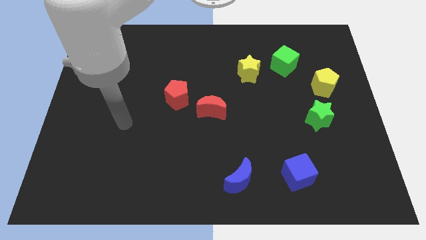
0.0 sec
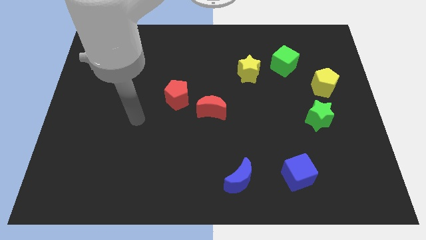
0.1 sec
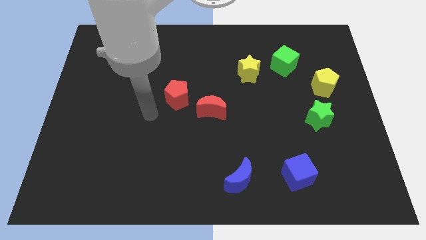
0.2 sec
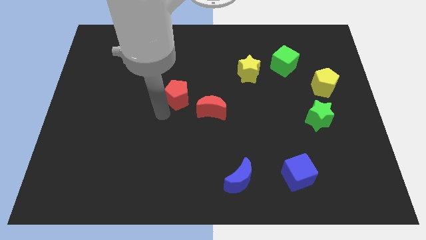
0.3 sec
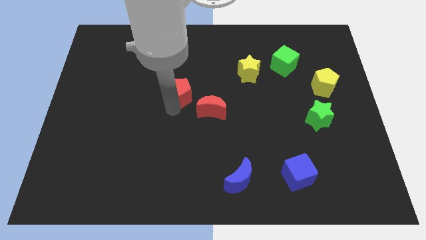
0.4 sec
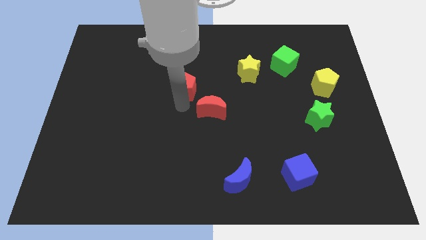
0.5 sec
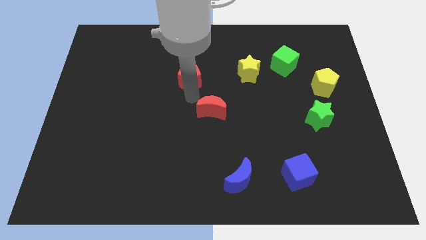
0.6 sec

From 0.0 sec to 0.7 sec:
move the red moon away from the red pentagon

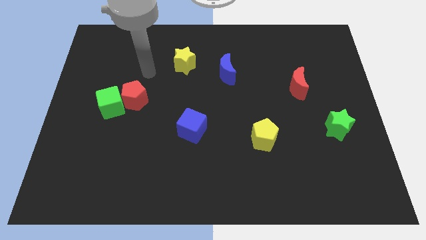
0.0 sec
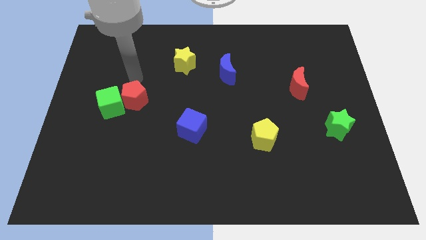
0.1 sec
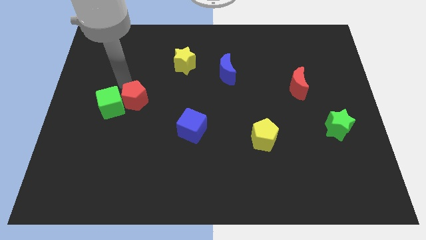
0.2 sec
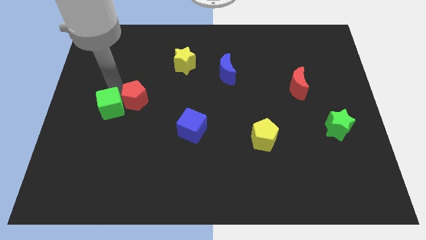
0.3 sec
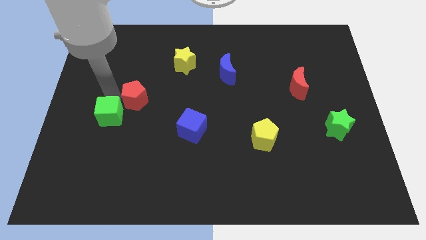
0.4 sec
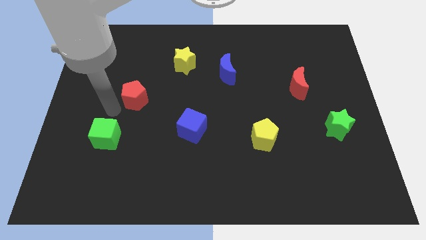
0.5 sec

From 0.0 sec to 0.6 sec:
separate the red pentagon from the green cube

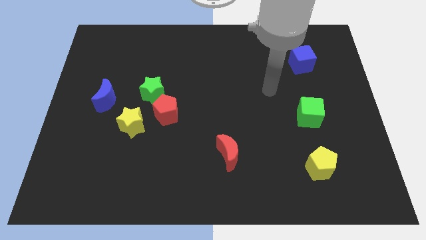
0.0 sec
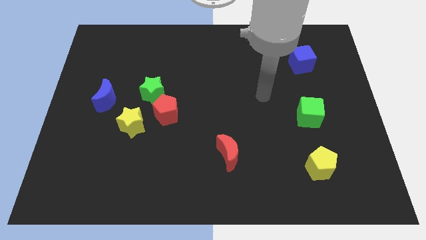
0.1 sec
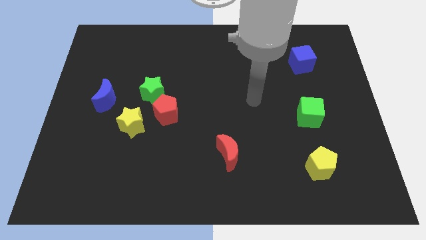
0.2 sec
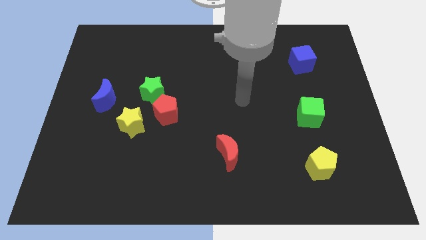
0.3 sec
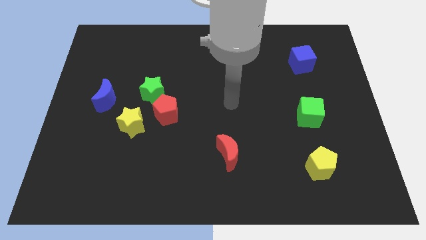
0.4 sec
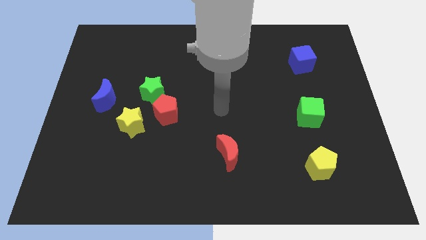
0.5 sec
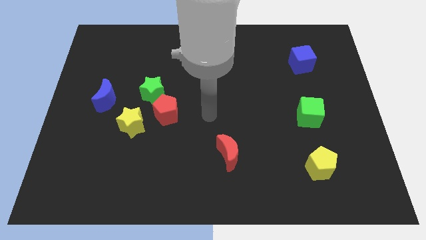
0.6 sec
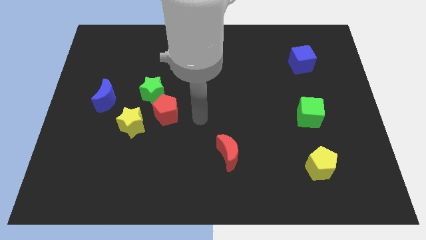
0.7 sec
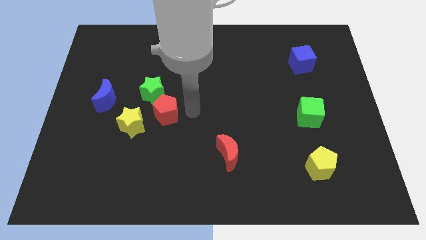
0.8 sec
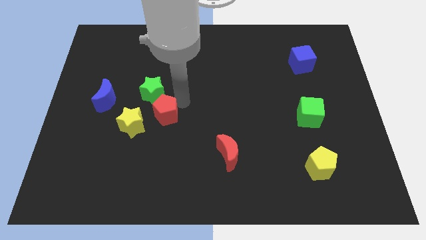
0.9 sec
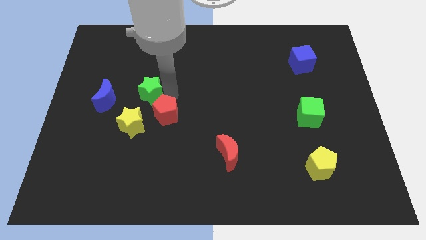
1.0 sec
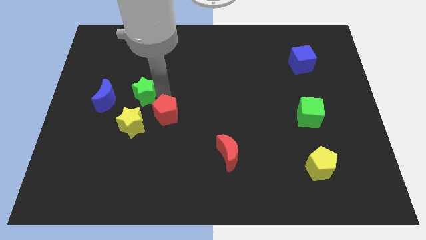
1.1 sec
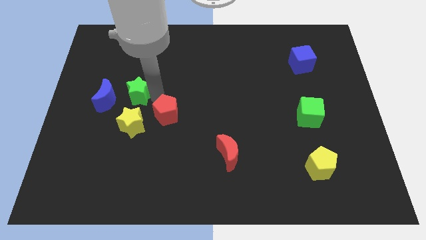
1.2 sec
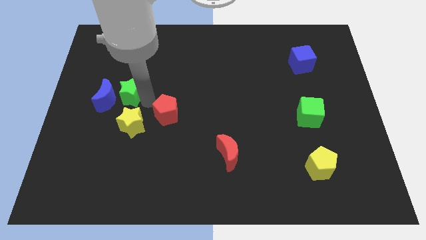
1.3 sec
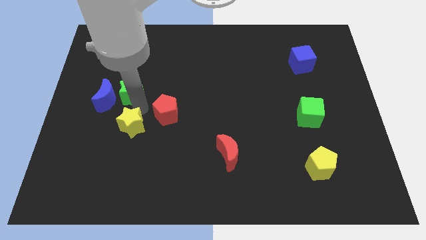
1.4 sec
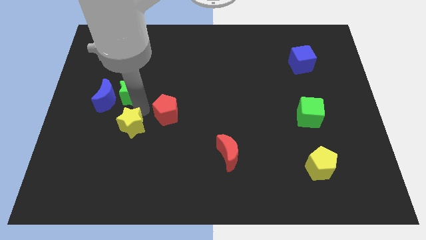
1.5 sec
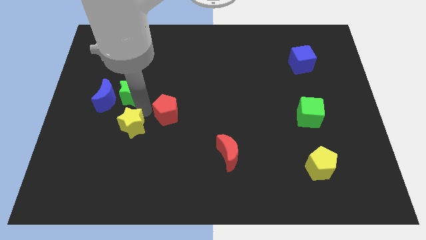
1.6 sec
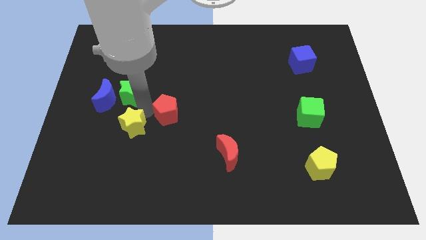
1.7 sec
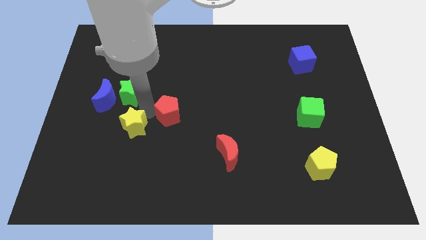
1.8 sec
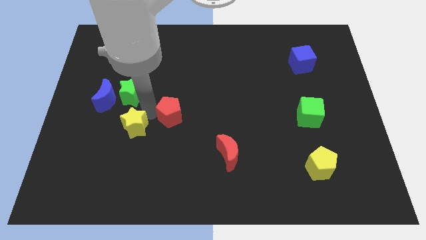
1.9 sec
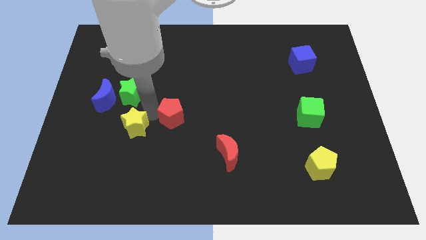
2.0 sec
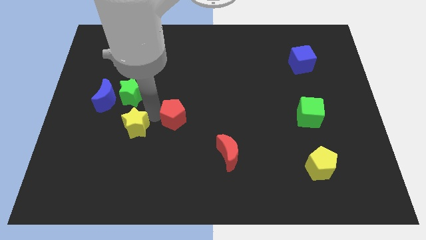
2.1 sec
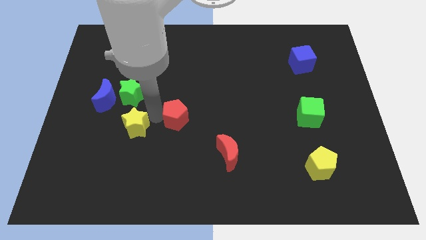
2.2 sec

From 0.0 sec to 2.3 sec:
pull the red pentagon apart from the green star and yellow star

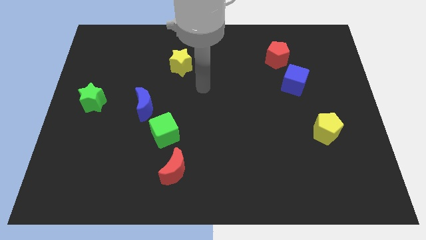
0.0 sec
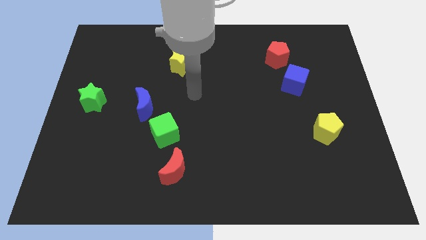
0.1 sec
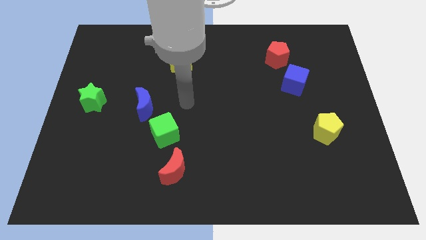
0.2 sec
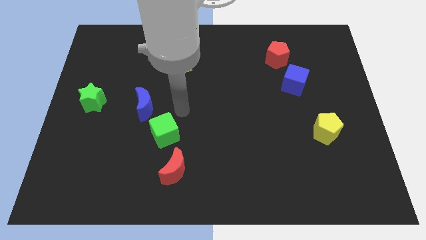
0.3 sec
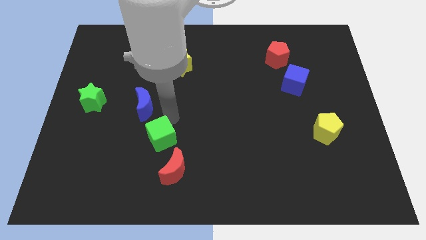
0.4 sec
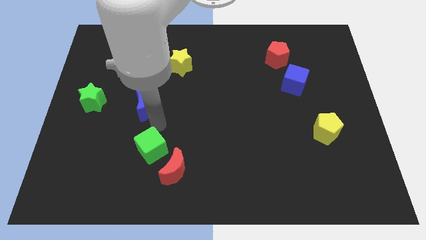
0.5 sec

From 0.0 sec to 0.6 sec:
move the blue moon away from the green cube

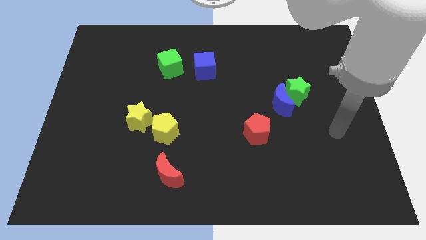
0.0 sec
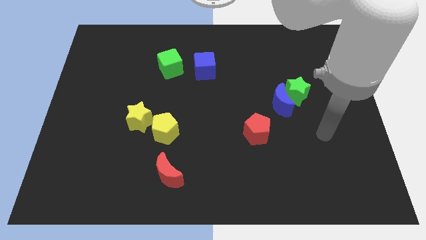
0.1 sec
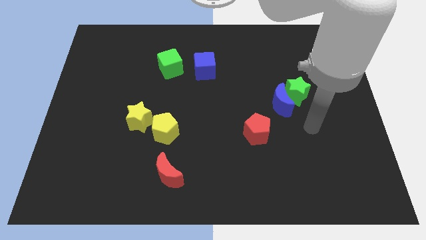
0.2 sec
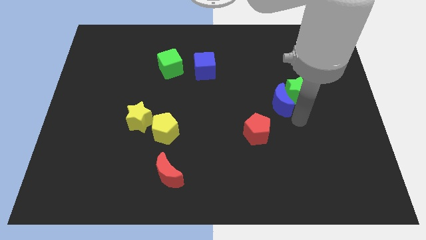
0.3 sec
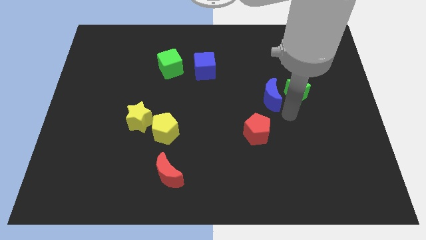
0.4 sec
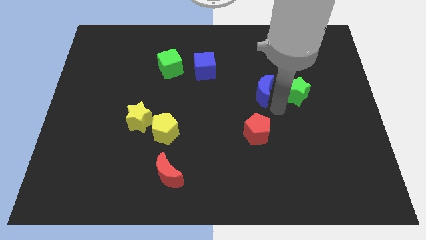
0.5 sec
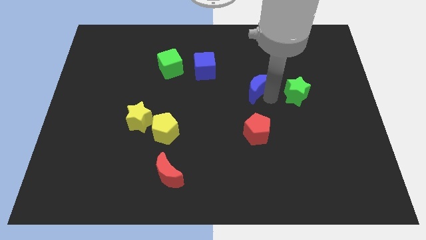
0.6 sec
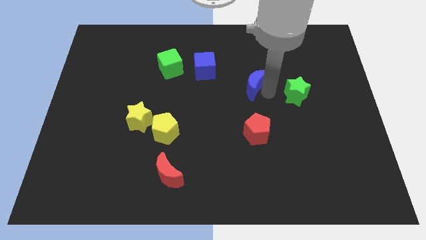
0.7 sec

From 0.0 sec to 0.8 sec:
move the green star away from the blue moon

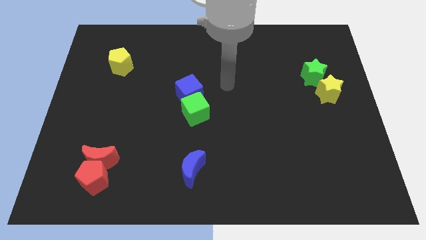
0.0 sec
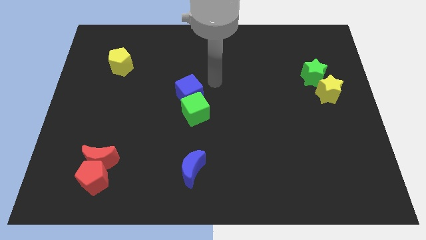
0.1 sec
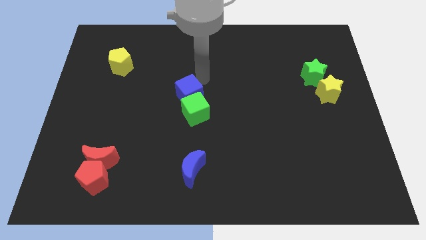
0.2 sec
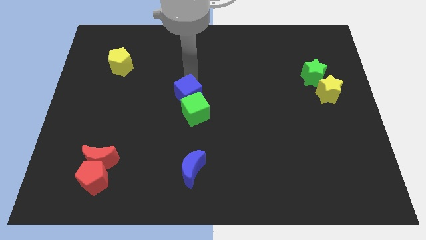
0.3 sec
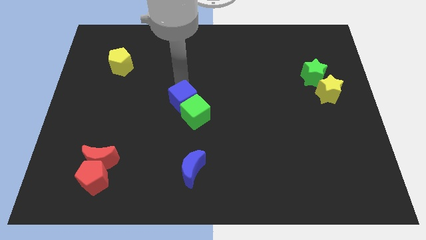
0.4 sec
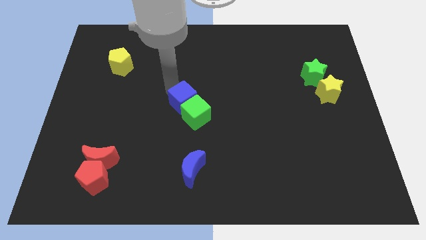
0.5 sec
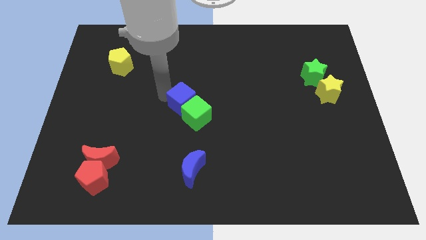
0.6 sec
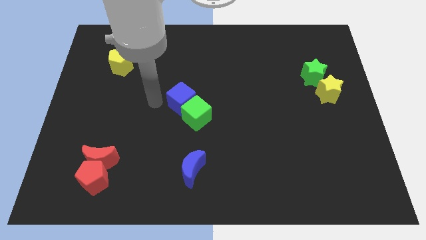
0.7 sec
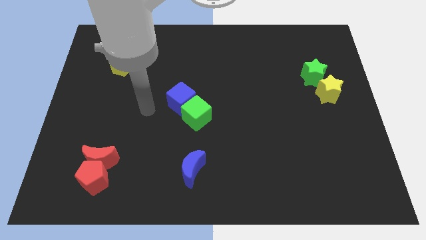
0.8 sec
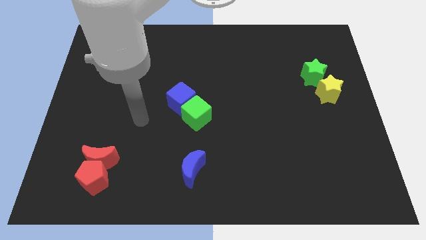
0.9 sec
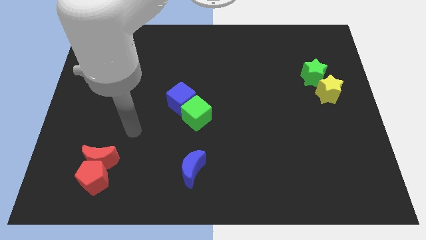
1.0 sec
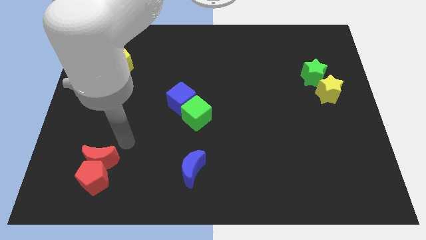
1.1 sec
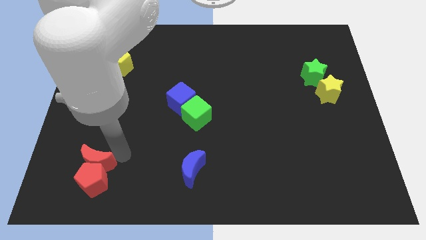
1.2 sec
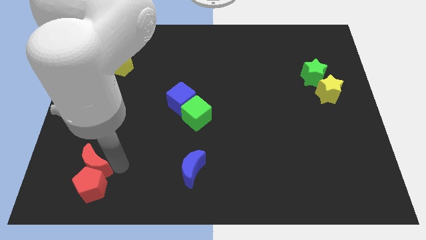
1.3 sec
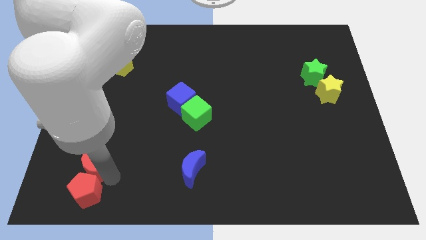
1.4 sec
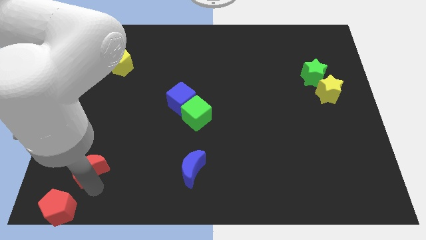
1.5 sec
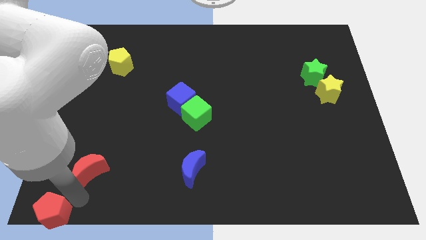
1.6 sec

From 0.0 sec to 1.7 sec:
pull the red moon apart from the red pentagon

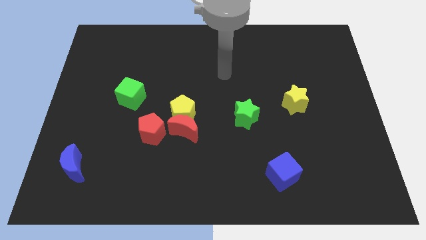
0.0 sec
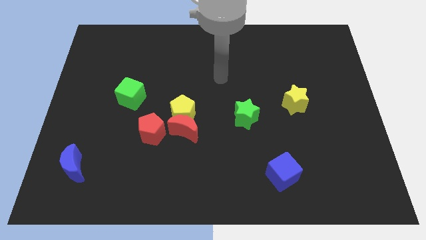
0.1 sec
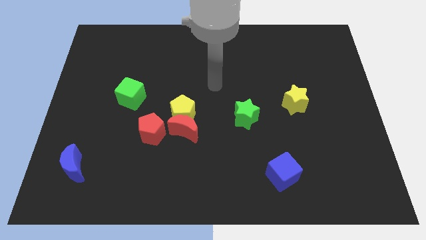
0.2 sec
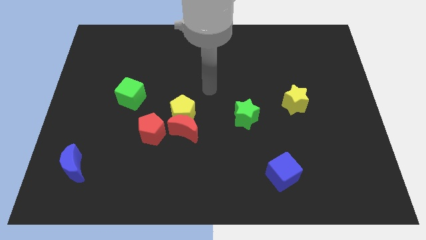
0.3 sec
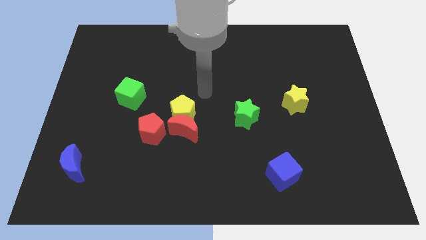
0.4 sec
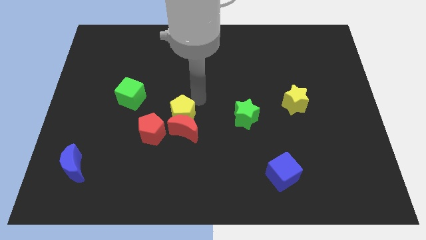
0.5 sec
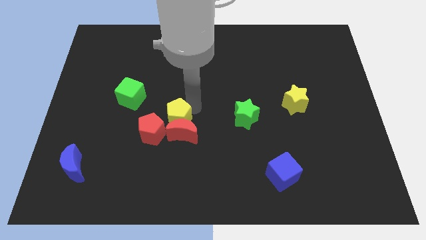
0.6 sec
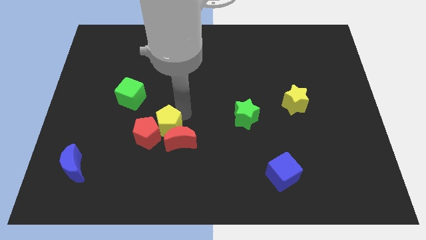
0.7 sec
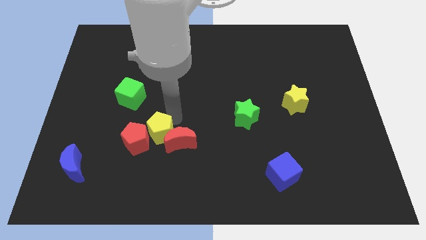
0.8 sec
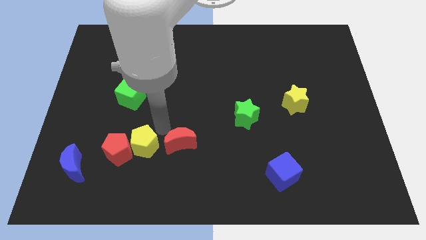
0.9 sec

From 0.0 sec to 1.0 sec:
separate the red moon from the yellow pentagon and red pentagon

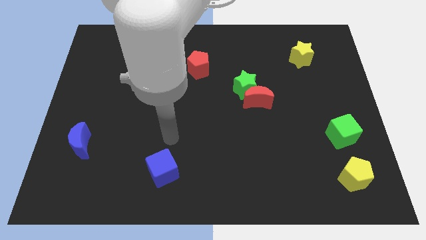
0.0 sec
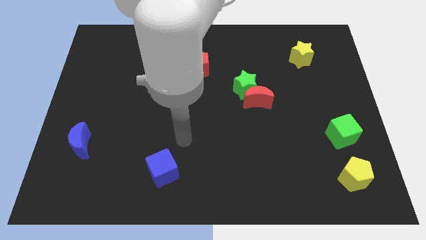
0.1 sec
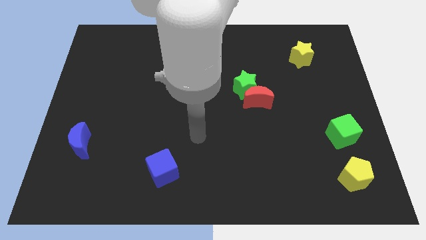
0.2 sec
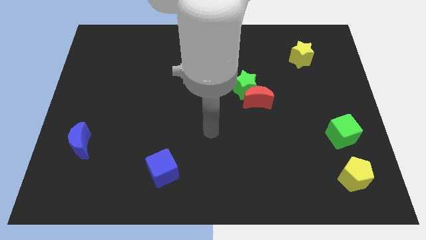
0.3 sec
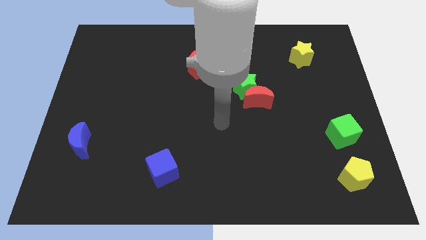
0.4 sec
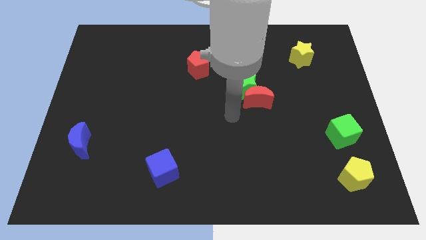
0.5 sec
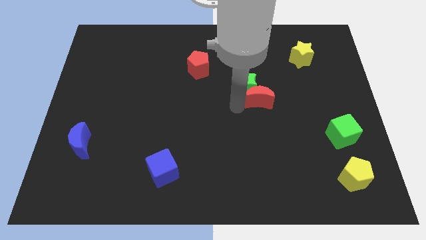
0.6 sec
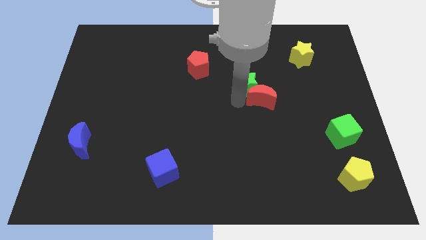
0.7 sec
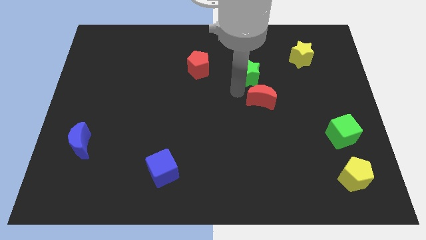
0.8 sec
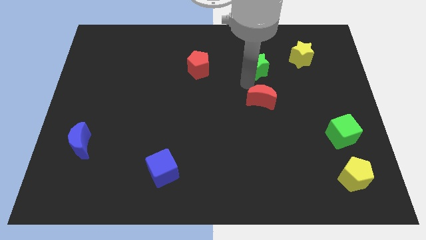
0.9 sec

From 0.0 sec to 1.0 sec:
pull the red moon apart from the green star

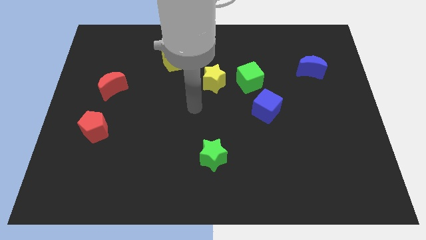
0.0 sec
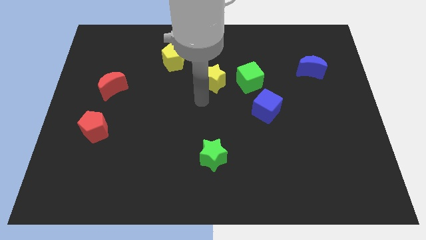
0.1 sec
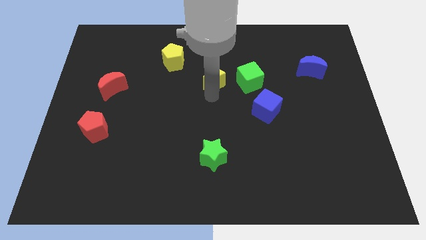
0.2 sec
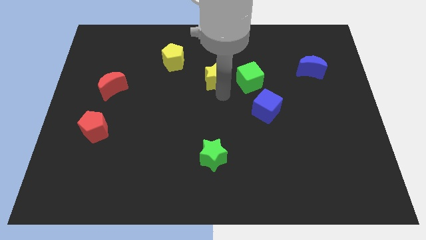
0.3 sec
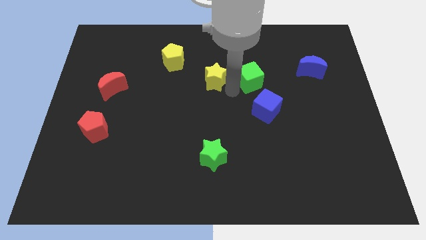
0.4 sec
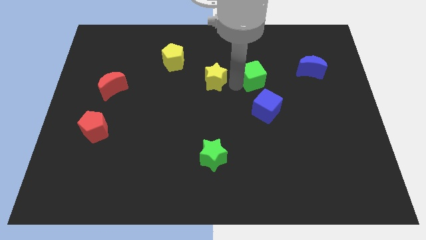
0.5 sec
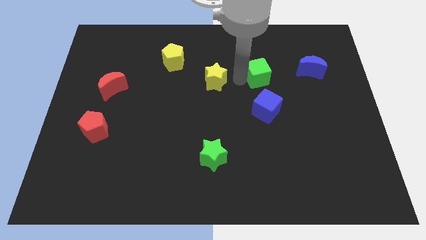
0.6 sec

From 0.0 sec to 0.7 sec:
pull the yellow star apart from the green cube
